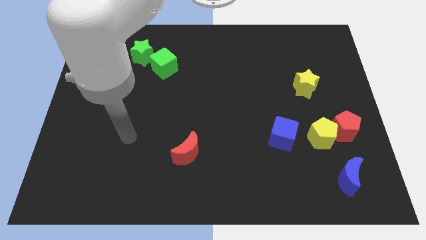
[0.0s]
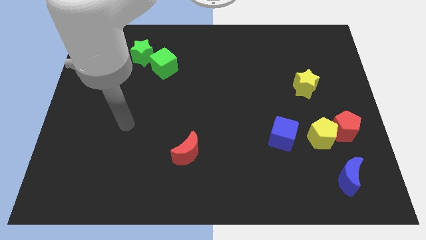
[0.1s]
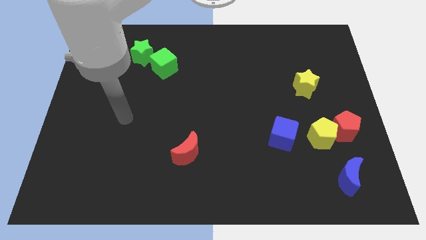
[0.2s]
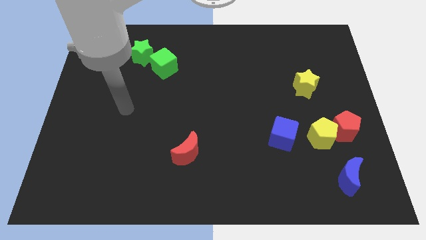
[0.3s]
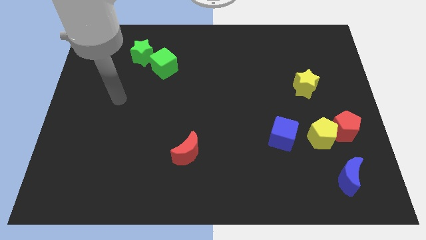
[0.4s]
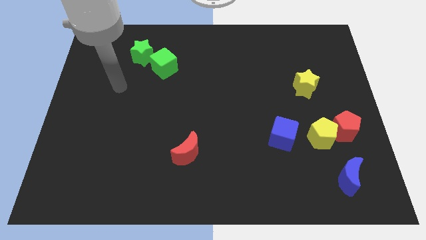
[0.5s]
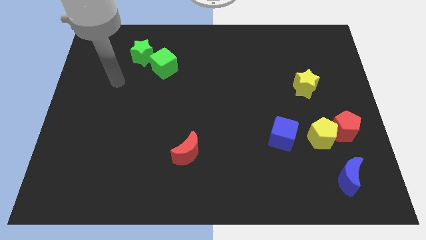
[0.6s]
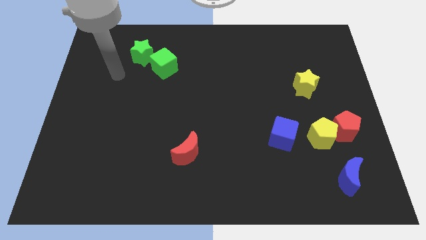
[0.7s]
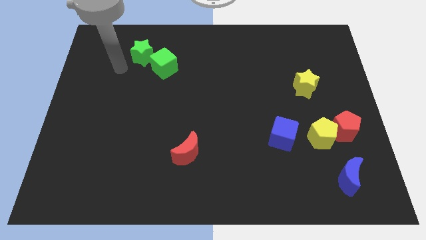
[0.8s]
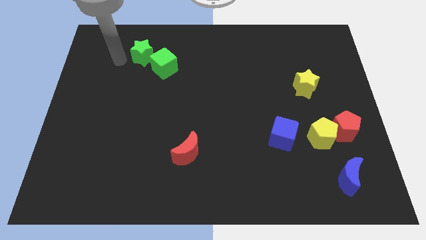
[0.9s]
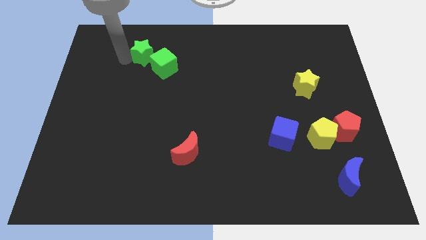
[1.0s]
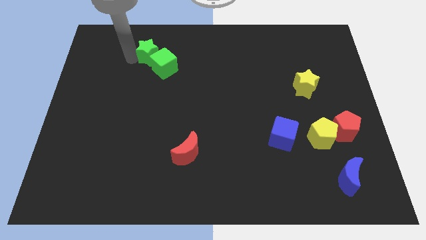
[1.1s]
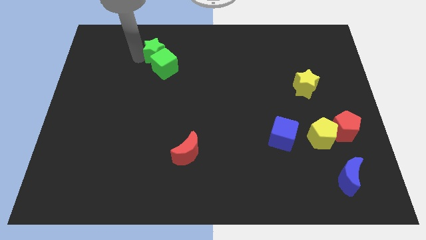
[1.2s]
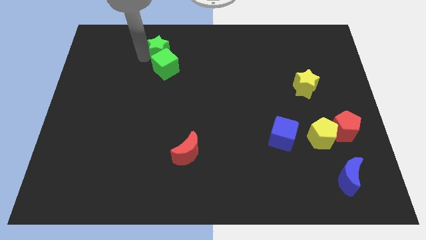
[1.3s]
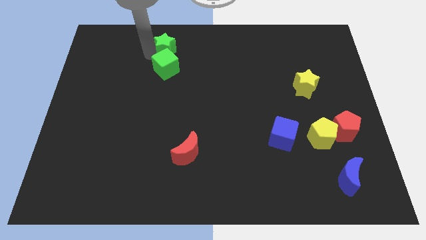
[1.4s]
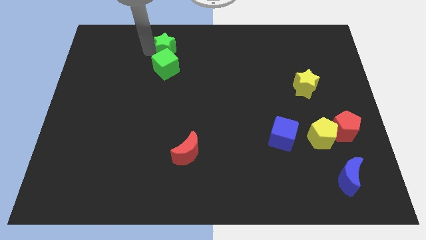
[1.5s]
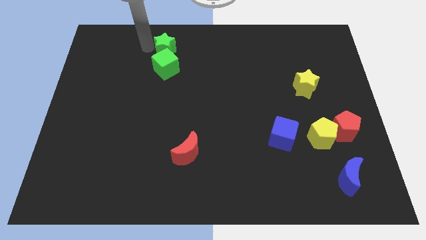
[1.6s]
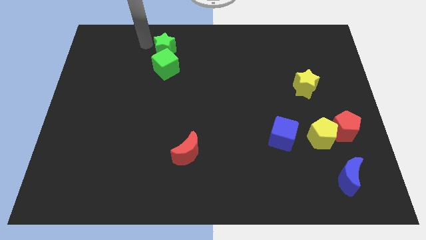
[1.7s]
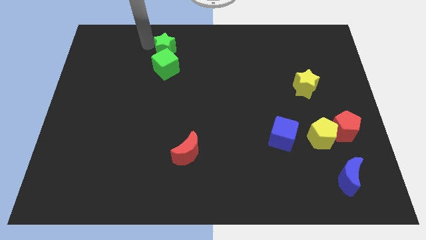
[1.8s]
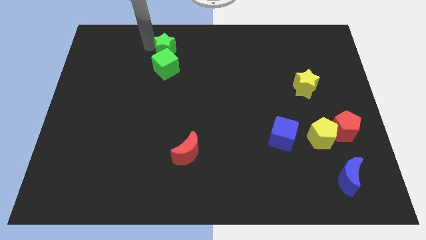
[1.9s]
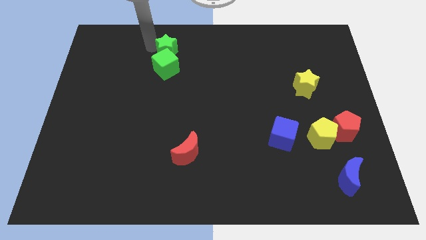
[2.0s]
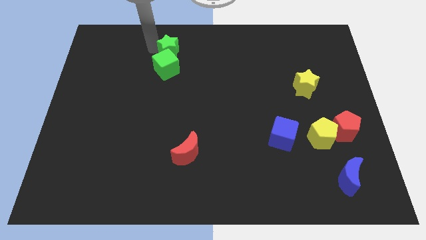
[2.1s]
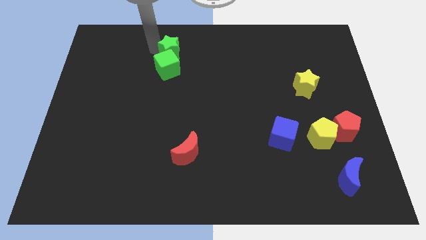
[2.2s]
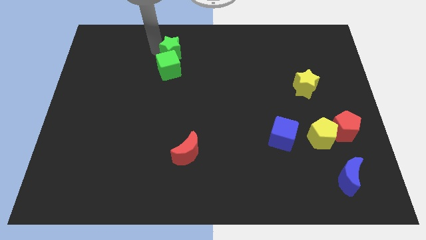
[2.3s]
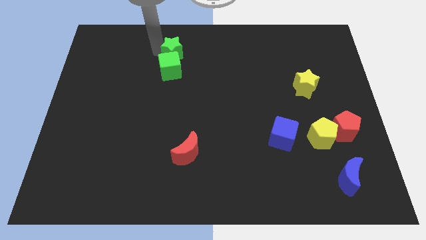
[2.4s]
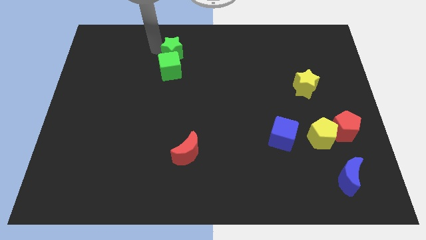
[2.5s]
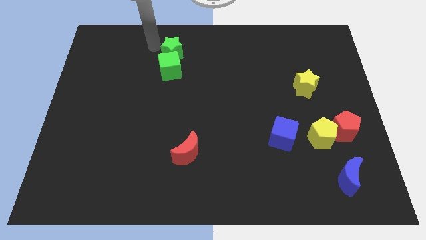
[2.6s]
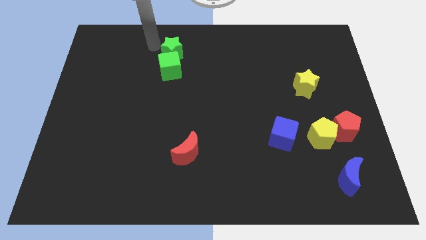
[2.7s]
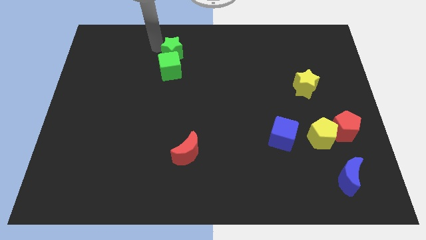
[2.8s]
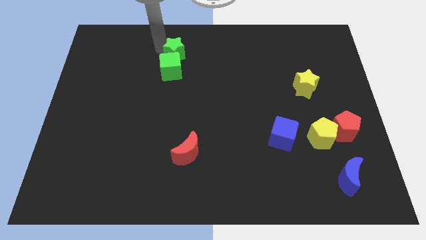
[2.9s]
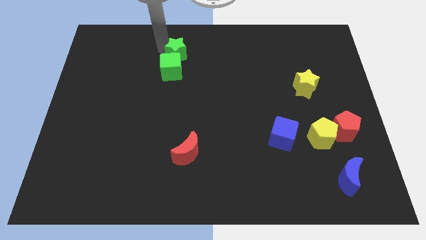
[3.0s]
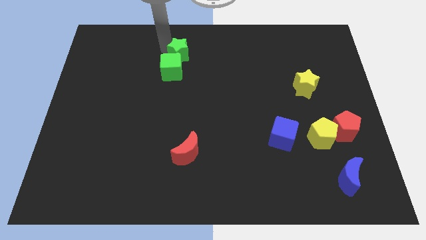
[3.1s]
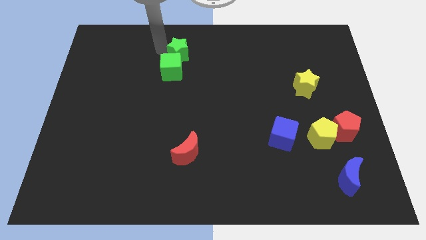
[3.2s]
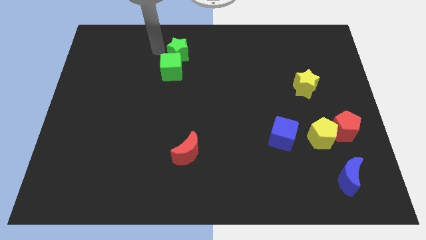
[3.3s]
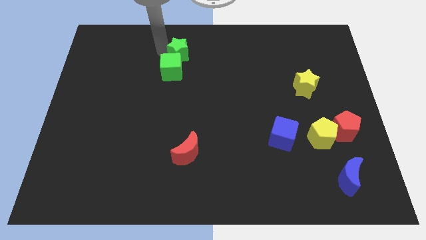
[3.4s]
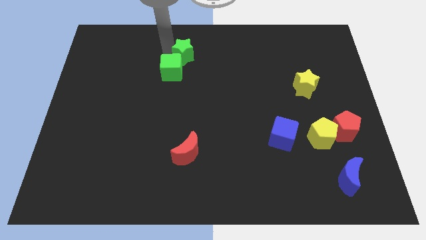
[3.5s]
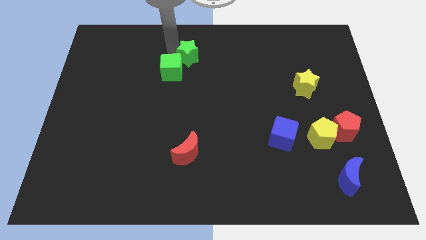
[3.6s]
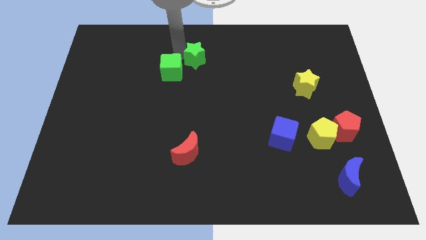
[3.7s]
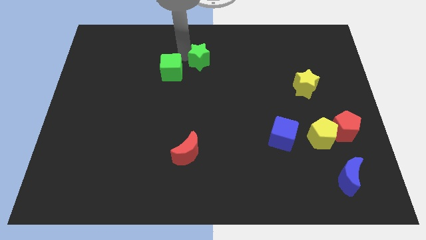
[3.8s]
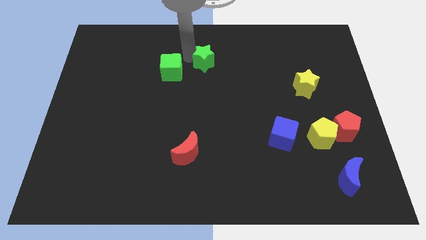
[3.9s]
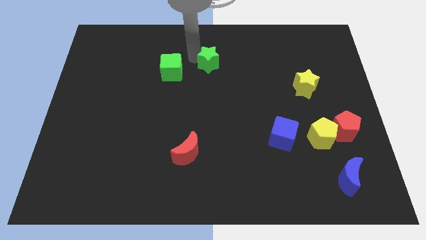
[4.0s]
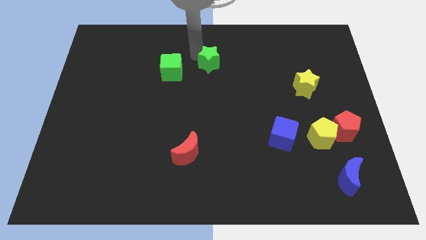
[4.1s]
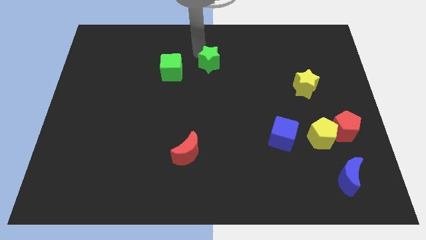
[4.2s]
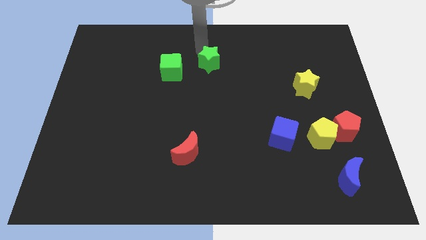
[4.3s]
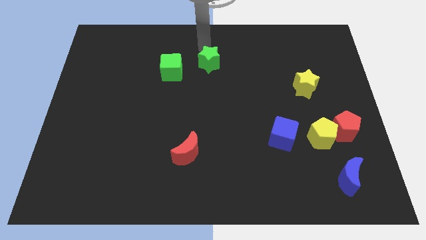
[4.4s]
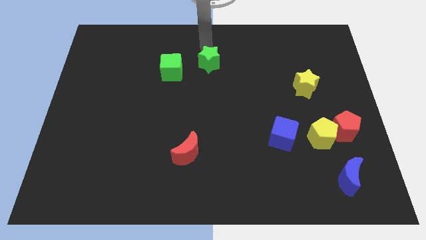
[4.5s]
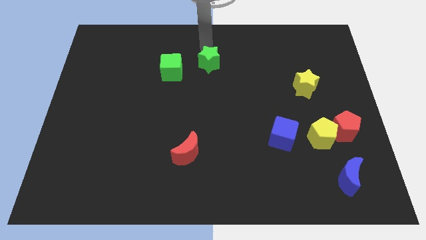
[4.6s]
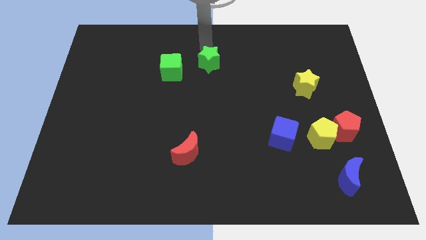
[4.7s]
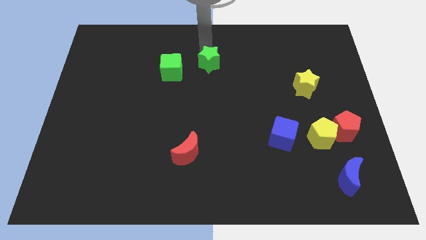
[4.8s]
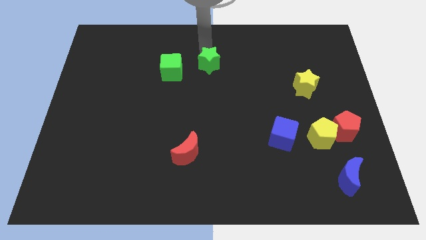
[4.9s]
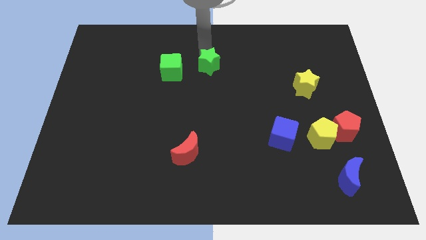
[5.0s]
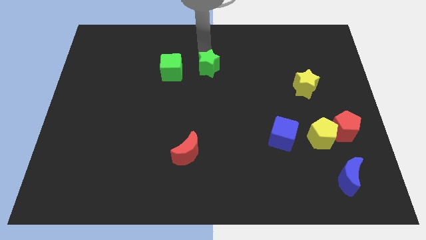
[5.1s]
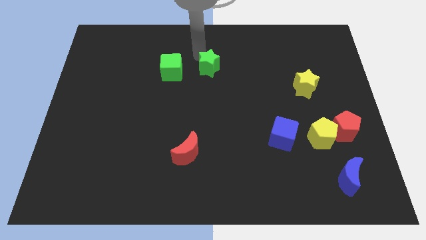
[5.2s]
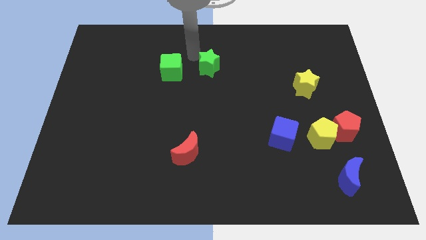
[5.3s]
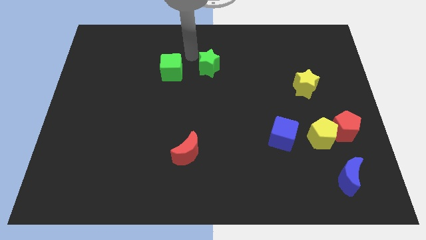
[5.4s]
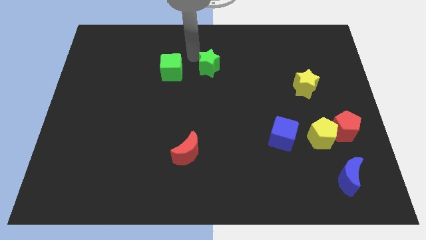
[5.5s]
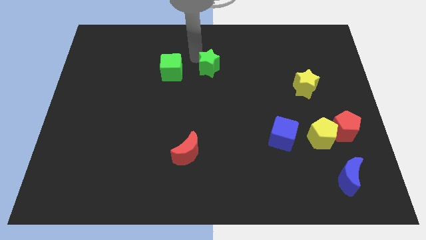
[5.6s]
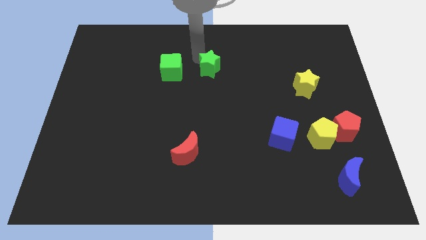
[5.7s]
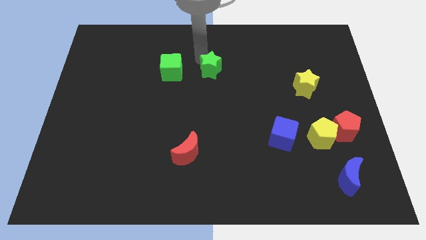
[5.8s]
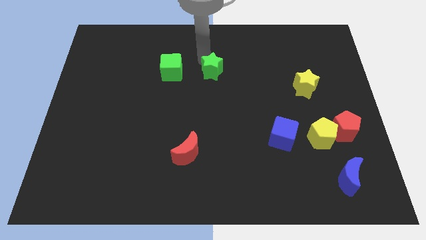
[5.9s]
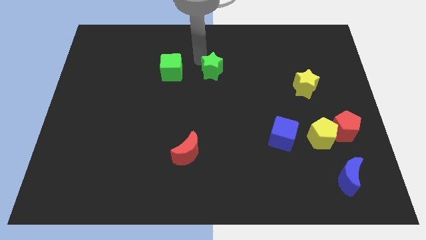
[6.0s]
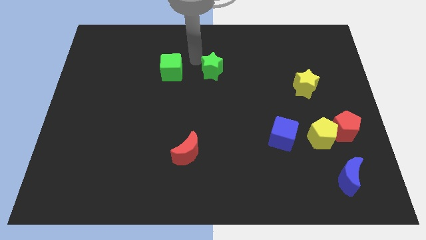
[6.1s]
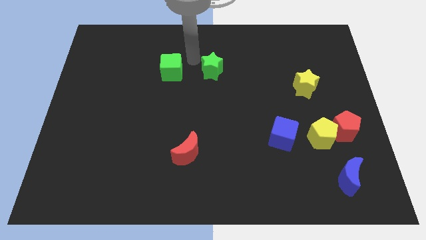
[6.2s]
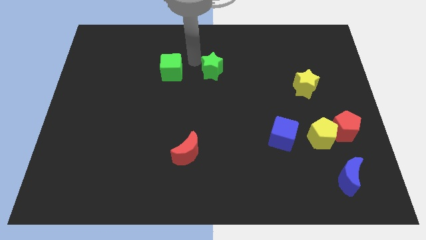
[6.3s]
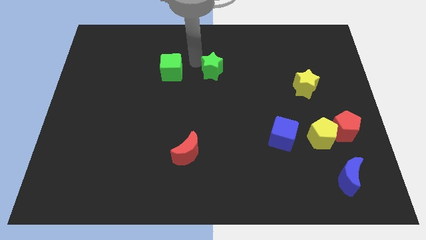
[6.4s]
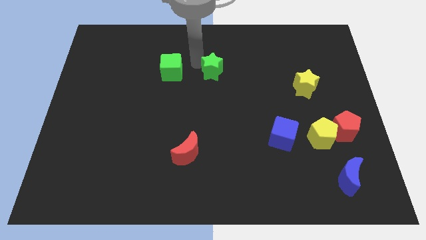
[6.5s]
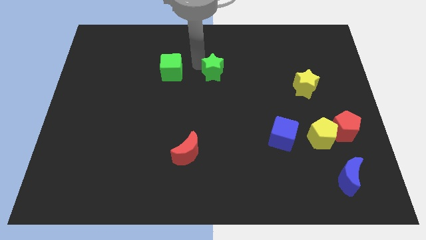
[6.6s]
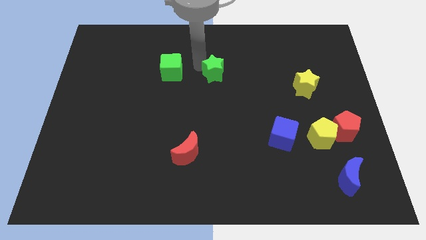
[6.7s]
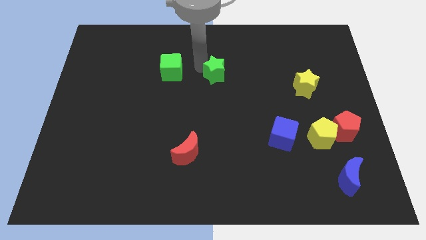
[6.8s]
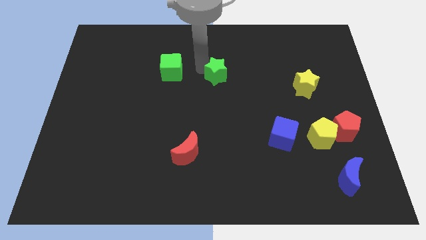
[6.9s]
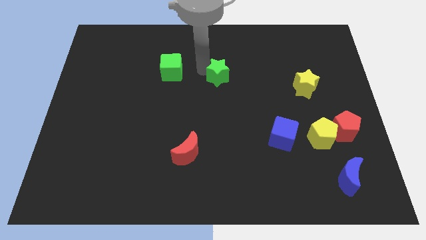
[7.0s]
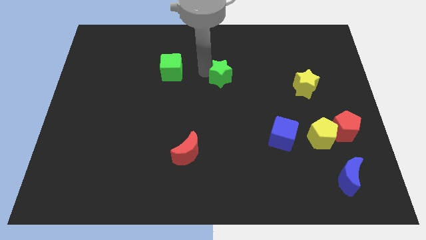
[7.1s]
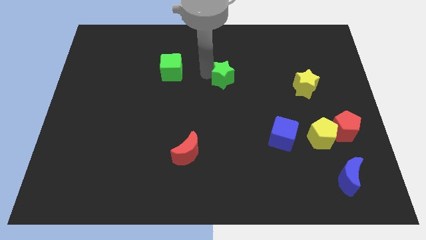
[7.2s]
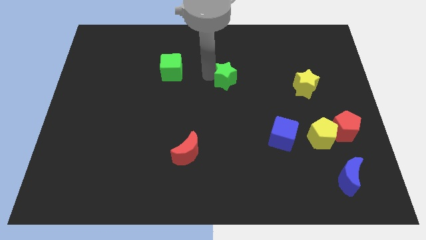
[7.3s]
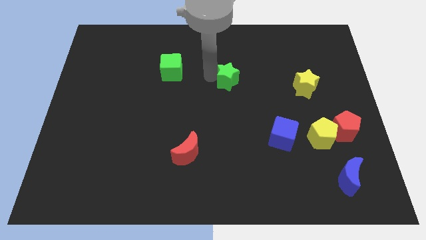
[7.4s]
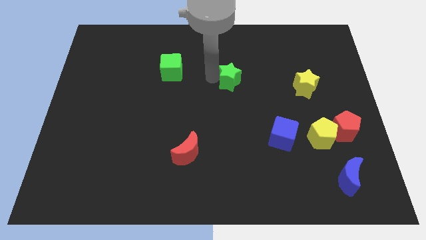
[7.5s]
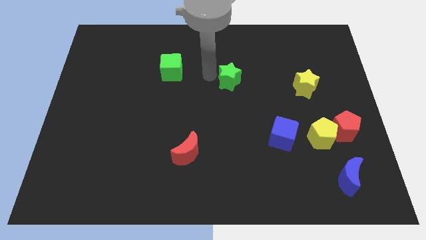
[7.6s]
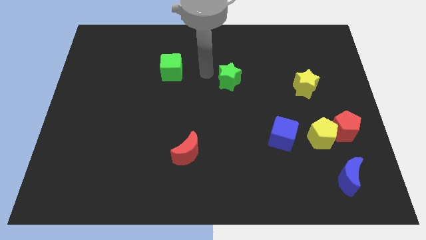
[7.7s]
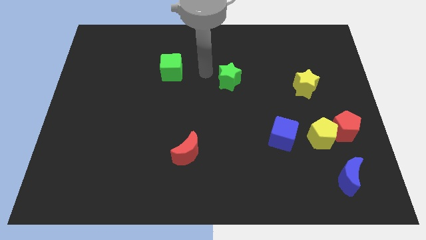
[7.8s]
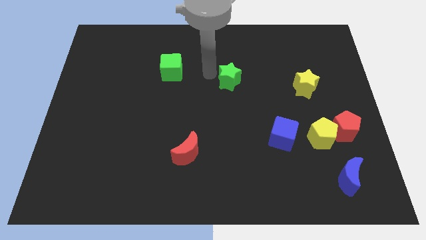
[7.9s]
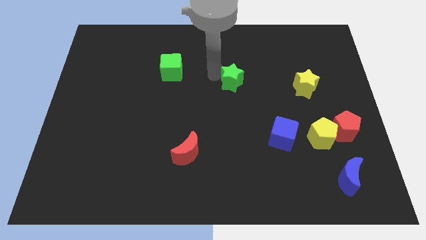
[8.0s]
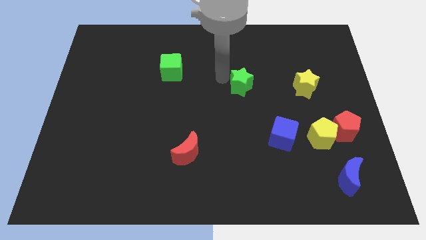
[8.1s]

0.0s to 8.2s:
put the green star to the left side of the yellow star

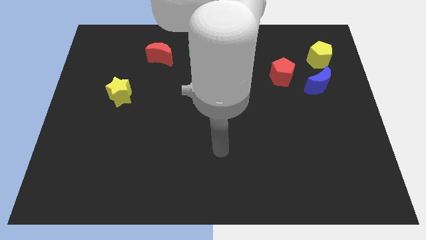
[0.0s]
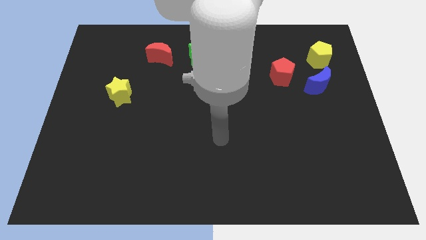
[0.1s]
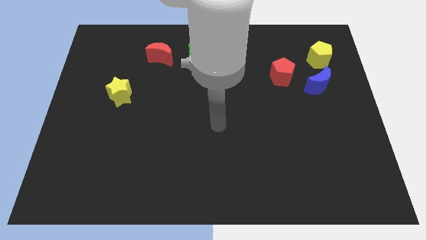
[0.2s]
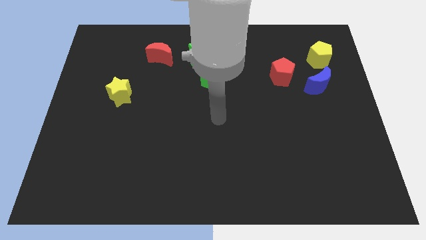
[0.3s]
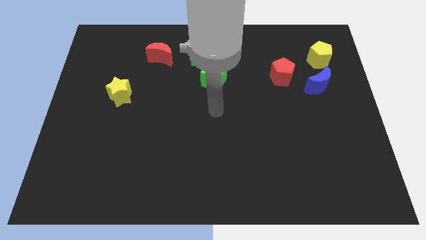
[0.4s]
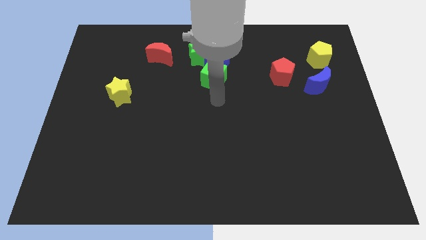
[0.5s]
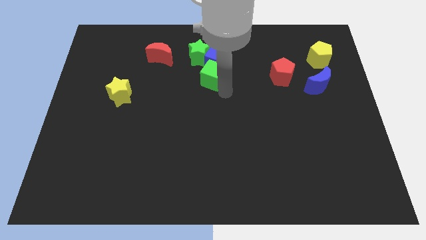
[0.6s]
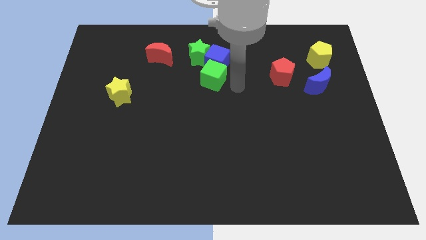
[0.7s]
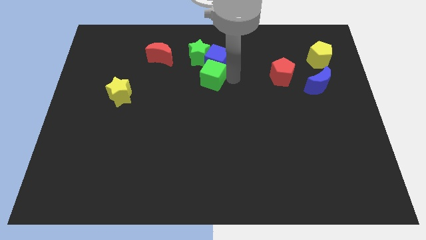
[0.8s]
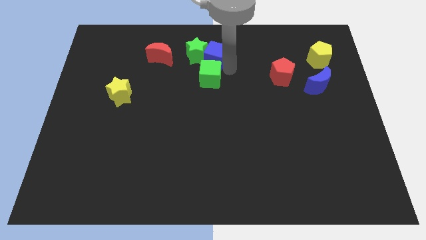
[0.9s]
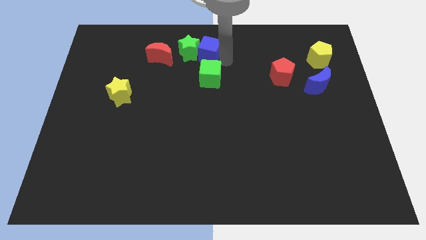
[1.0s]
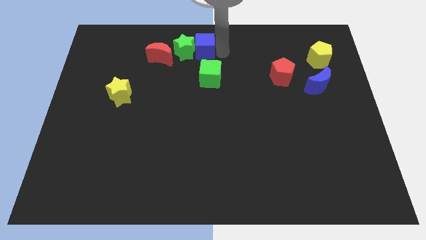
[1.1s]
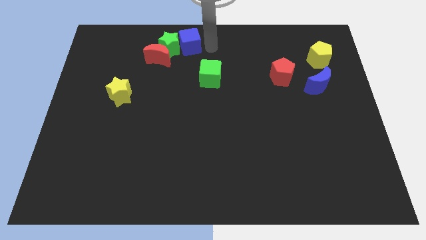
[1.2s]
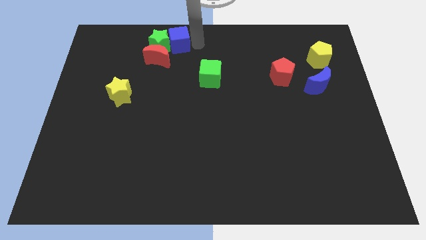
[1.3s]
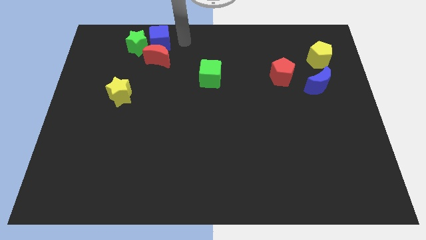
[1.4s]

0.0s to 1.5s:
push the green star to the left side of the red moon
